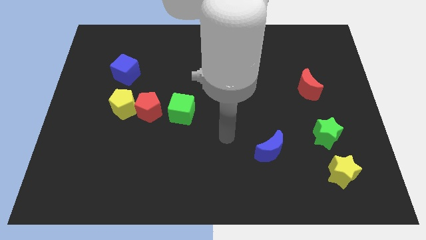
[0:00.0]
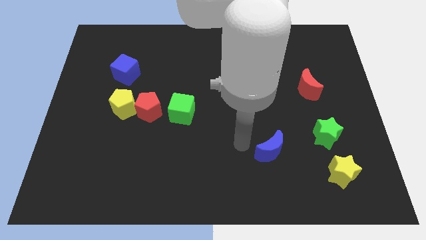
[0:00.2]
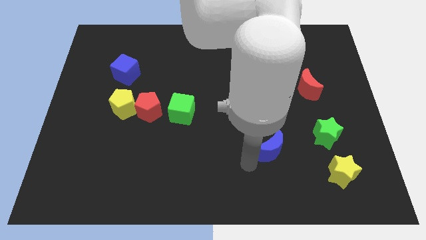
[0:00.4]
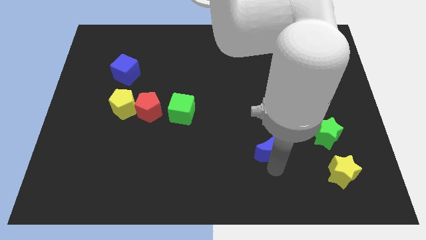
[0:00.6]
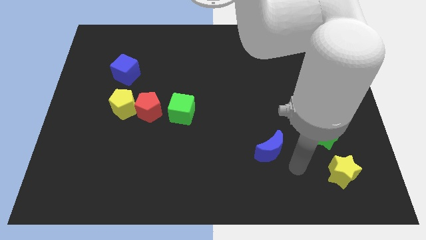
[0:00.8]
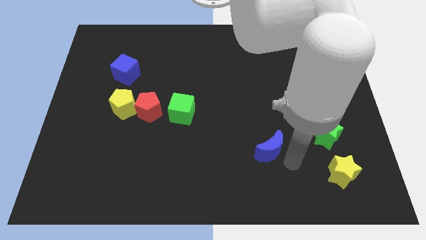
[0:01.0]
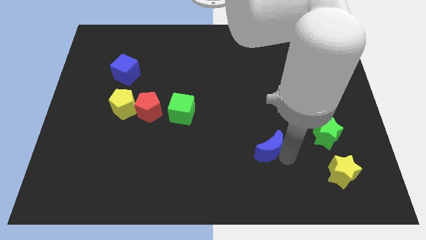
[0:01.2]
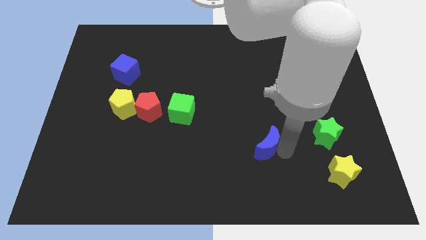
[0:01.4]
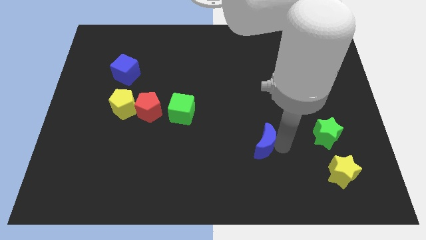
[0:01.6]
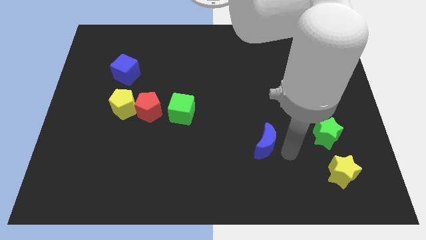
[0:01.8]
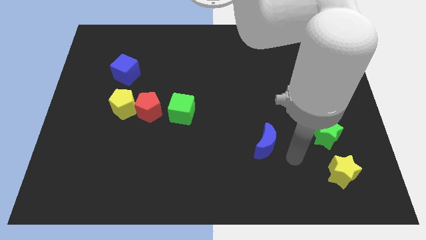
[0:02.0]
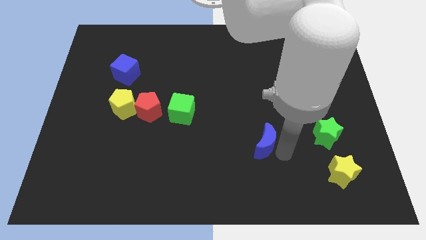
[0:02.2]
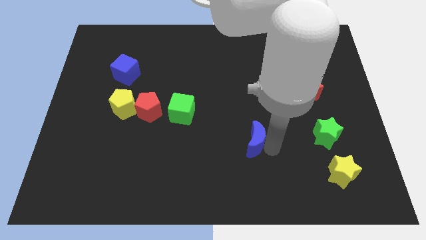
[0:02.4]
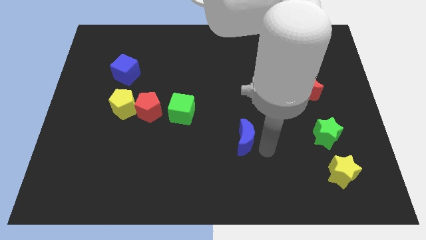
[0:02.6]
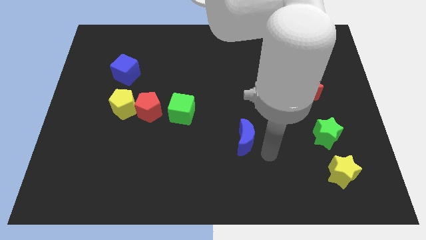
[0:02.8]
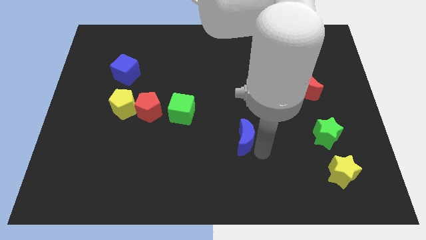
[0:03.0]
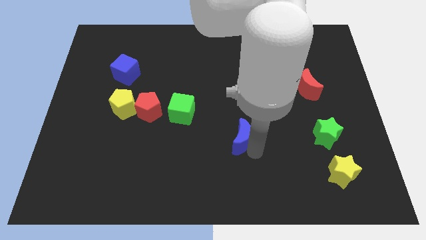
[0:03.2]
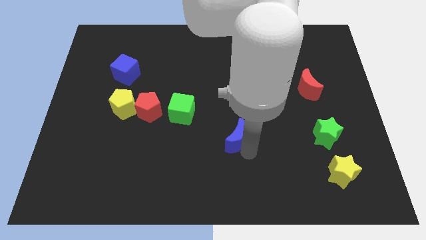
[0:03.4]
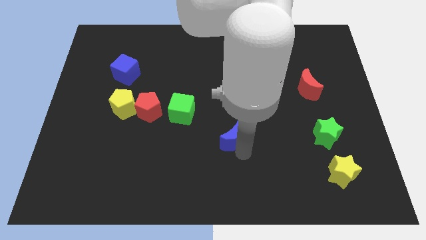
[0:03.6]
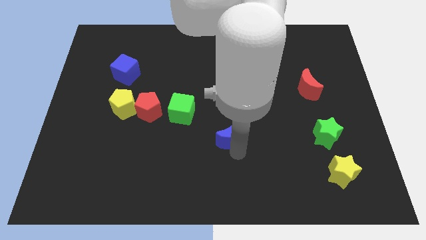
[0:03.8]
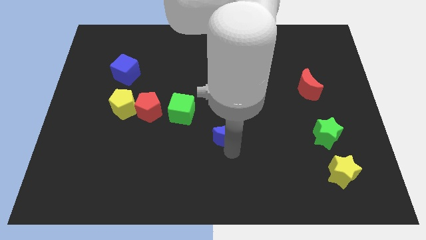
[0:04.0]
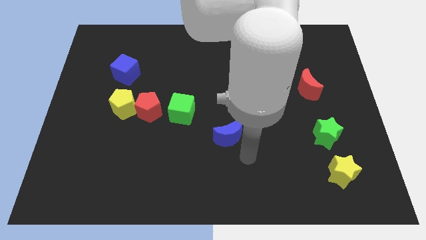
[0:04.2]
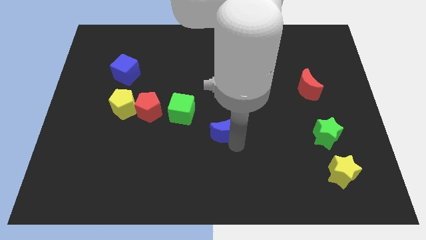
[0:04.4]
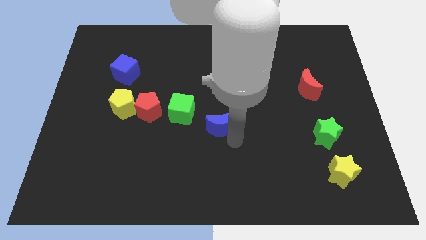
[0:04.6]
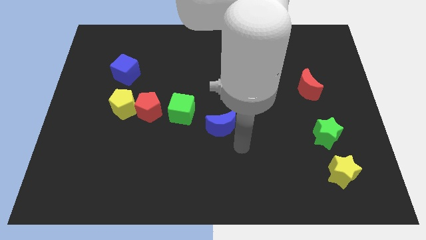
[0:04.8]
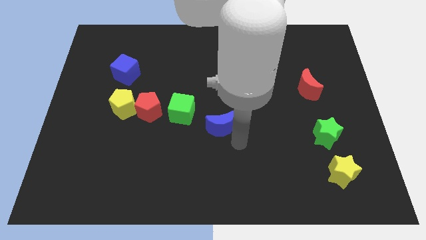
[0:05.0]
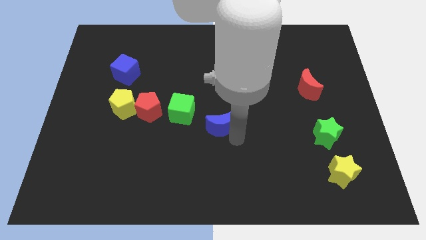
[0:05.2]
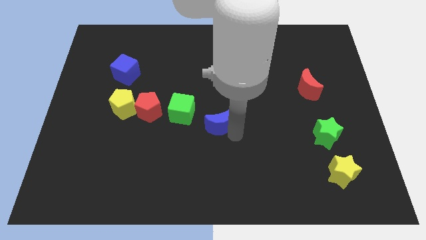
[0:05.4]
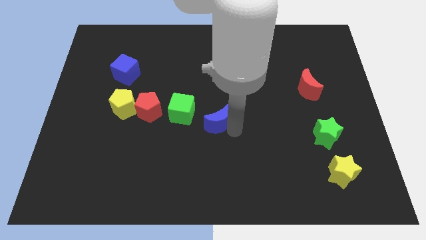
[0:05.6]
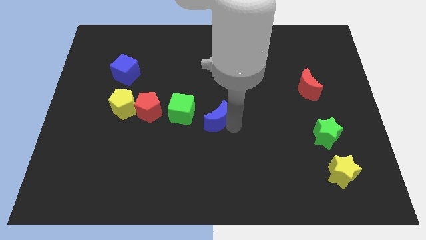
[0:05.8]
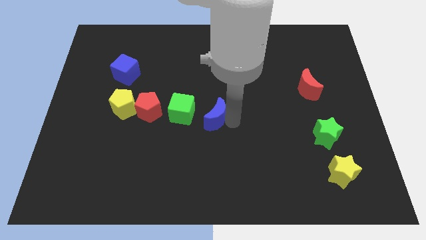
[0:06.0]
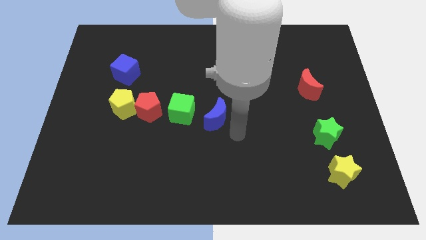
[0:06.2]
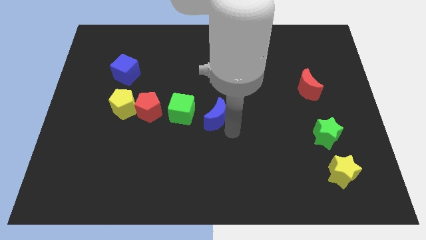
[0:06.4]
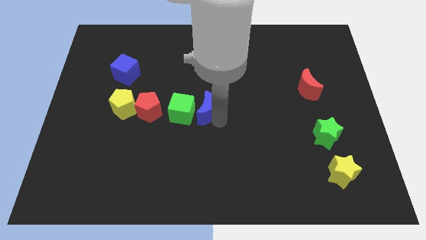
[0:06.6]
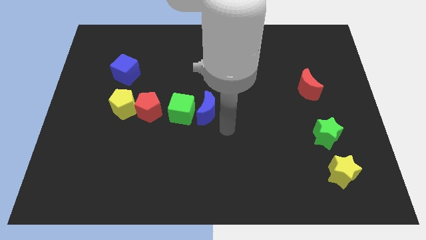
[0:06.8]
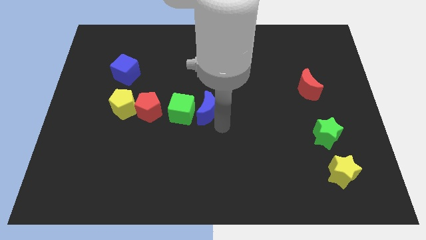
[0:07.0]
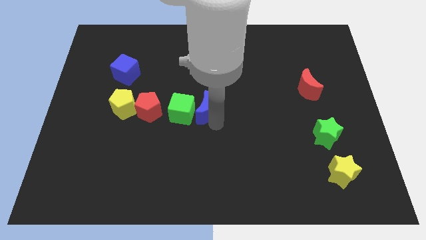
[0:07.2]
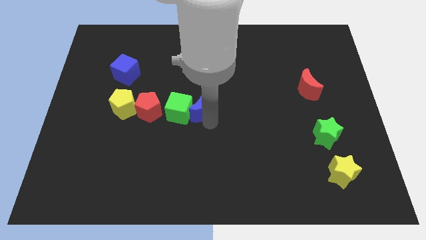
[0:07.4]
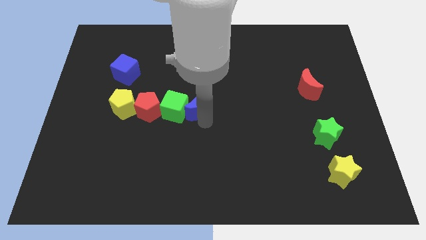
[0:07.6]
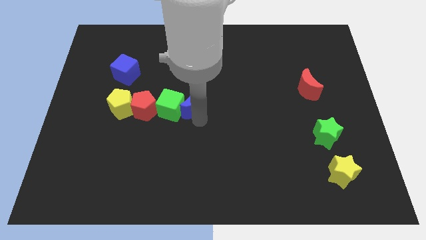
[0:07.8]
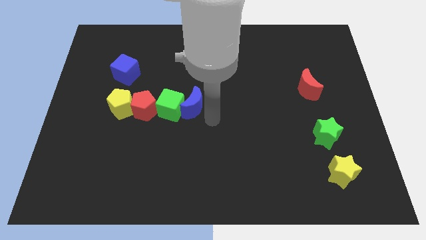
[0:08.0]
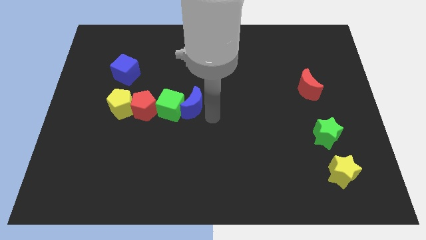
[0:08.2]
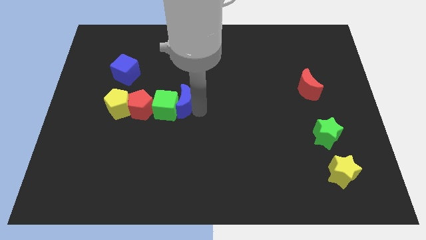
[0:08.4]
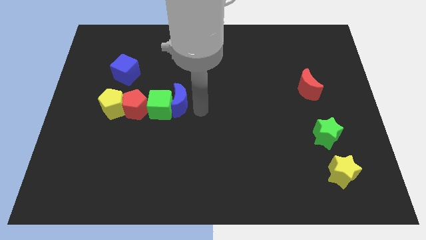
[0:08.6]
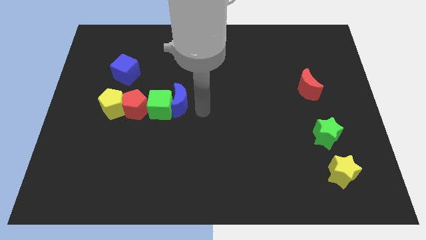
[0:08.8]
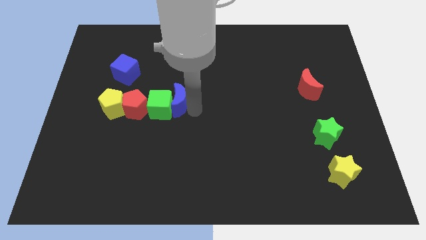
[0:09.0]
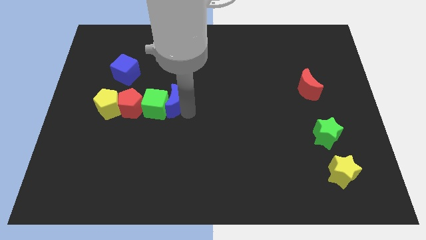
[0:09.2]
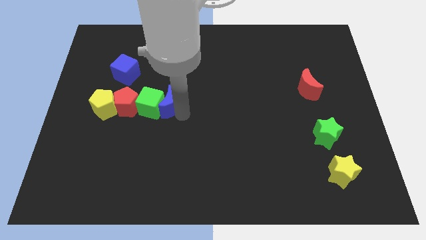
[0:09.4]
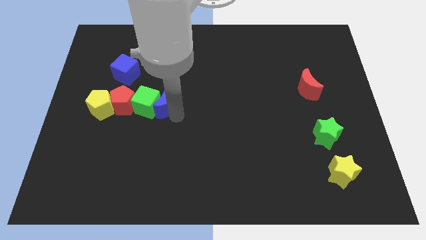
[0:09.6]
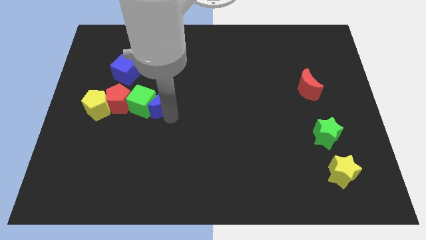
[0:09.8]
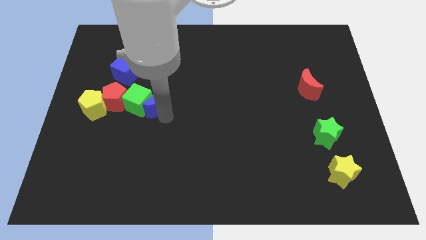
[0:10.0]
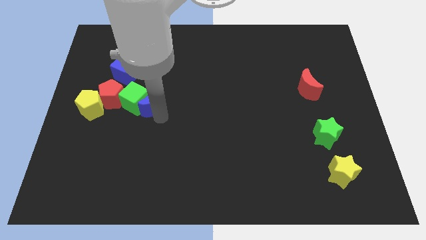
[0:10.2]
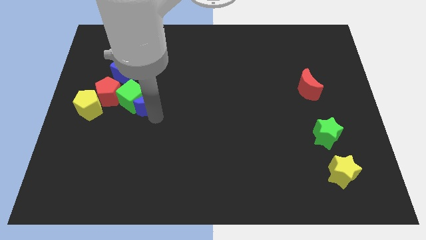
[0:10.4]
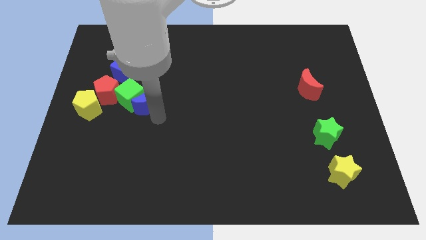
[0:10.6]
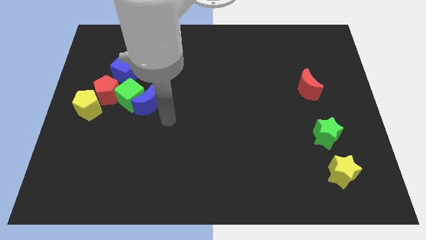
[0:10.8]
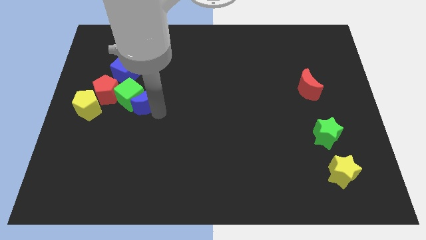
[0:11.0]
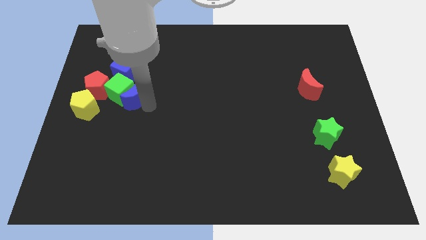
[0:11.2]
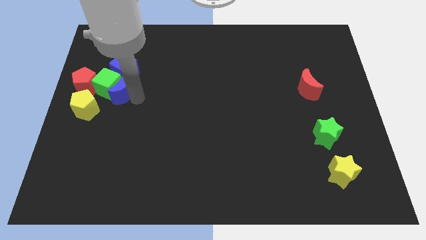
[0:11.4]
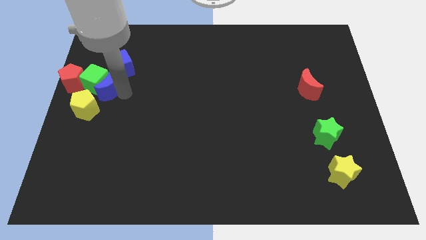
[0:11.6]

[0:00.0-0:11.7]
put the blue moon to the bottom left of the blue cube
